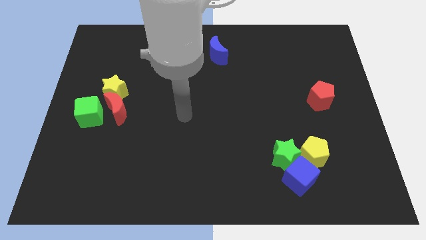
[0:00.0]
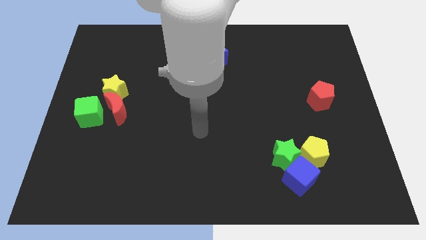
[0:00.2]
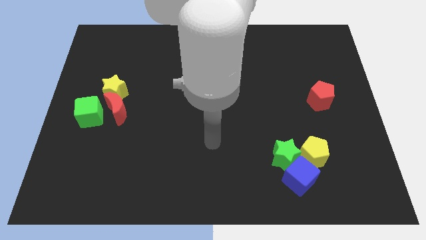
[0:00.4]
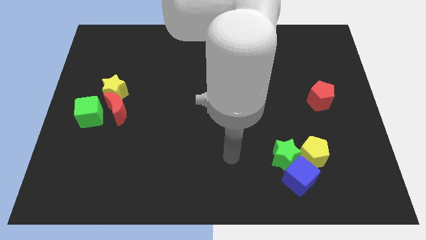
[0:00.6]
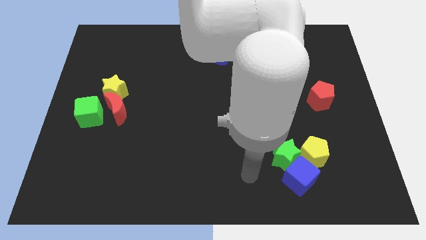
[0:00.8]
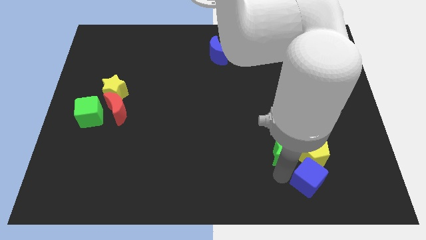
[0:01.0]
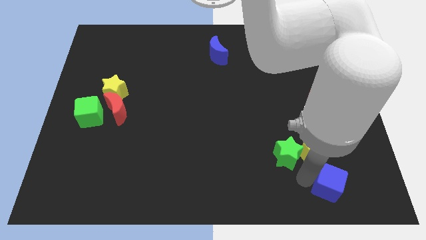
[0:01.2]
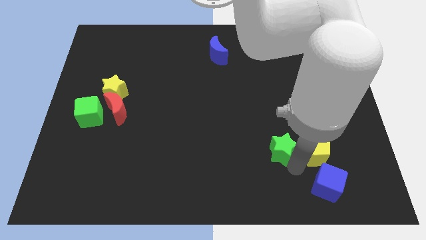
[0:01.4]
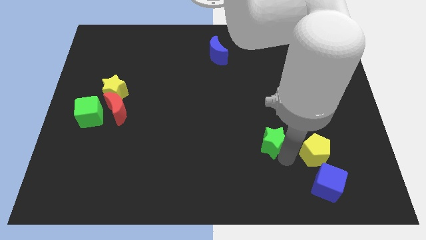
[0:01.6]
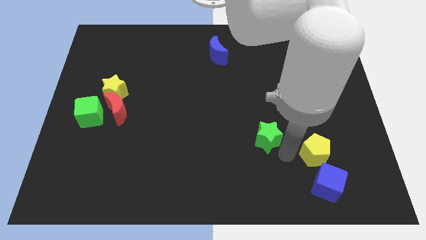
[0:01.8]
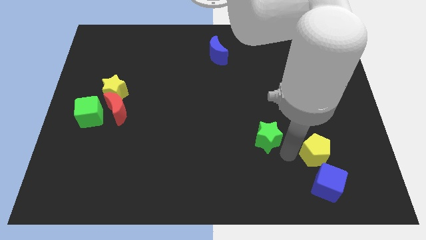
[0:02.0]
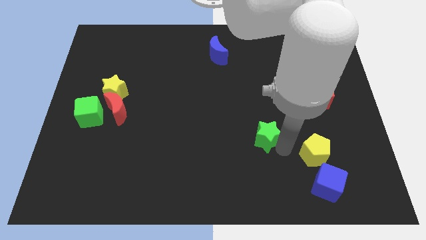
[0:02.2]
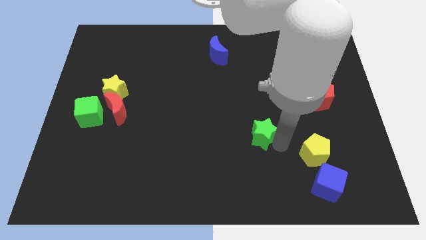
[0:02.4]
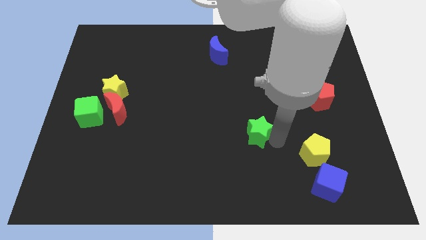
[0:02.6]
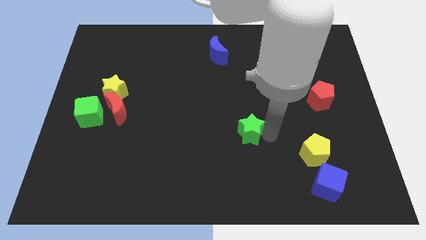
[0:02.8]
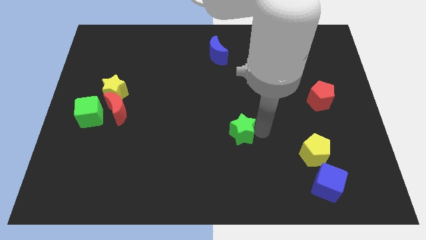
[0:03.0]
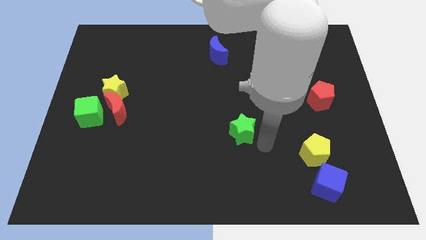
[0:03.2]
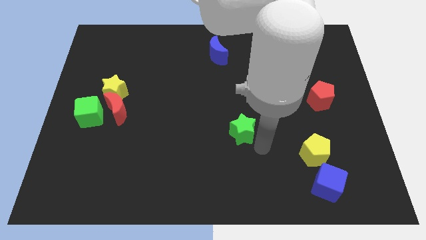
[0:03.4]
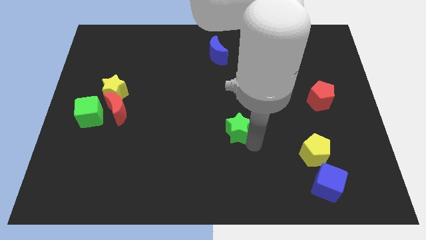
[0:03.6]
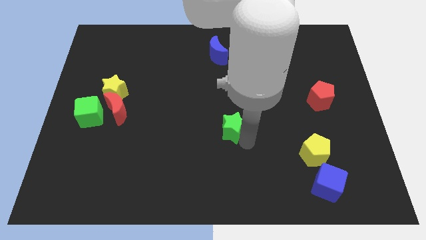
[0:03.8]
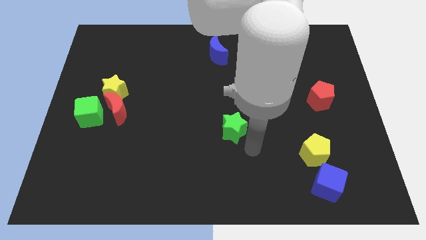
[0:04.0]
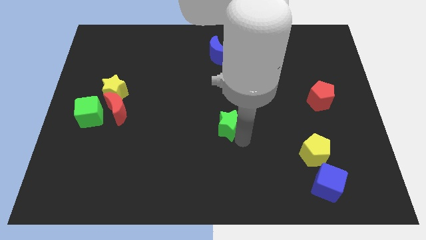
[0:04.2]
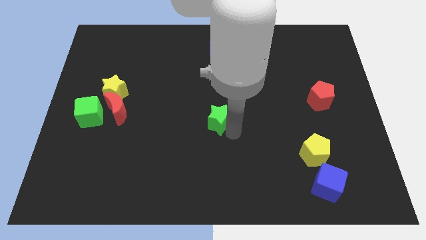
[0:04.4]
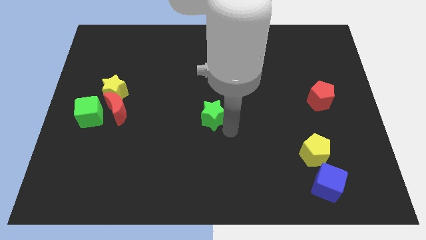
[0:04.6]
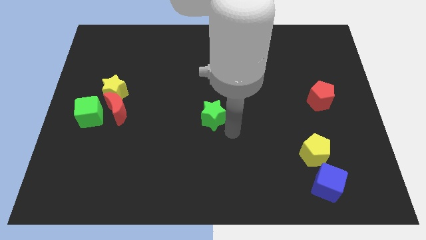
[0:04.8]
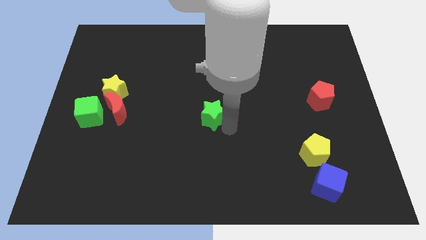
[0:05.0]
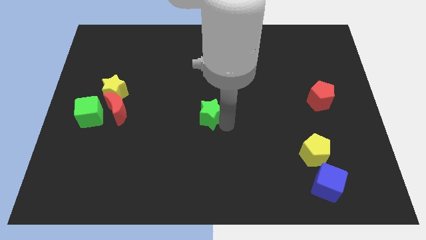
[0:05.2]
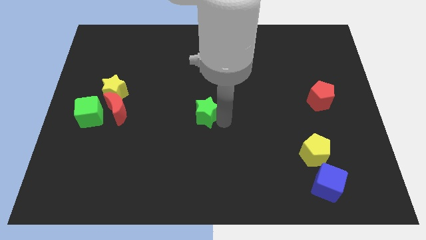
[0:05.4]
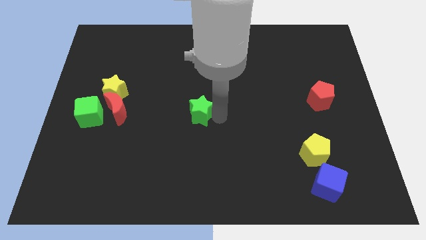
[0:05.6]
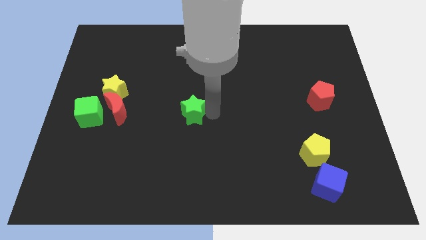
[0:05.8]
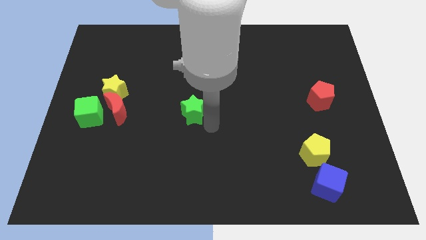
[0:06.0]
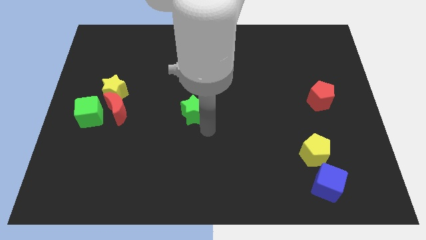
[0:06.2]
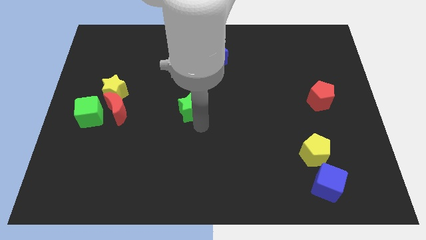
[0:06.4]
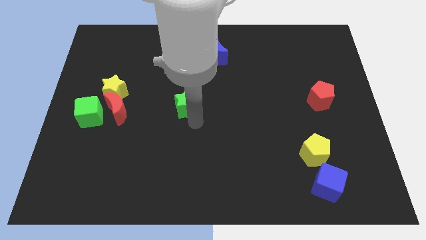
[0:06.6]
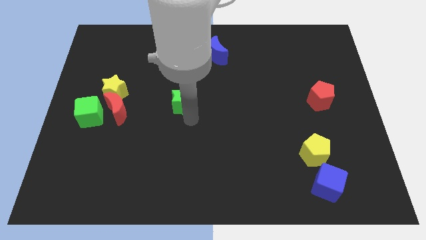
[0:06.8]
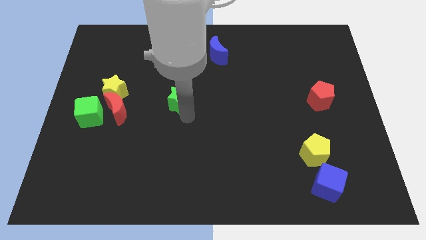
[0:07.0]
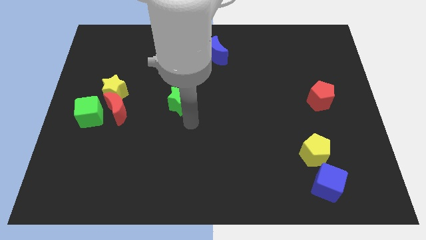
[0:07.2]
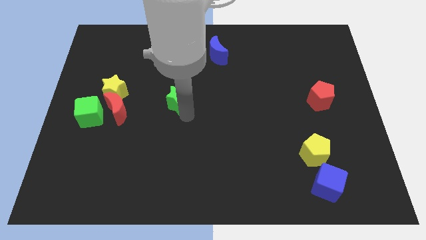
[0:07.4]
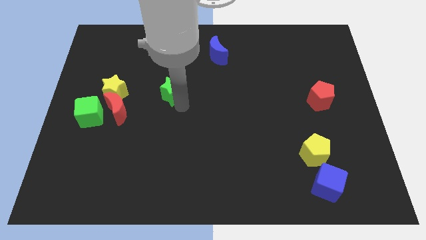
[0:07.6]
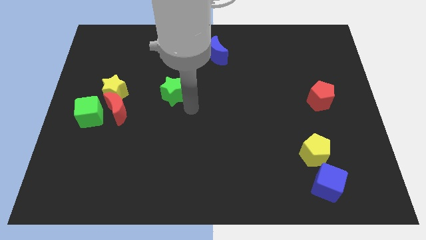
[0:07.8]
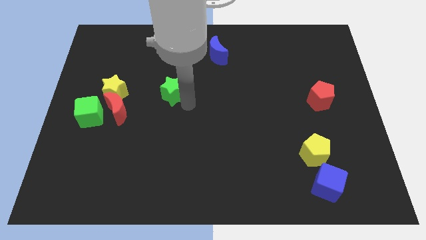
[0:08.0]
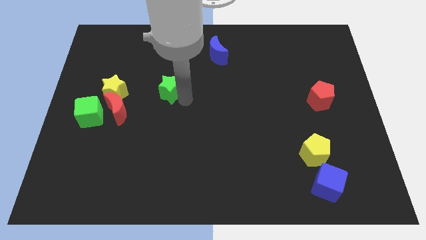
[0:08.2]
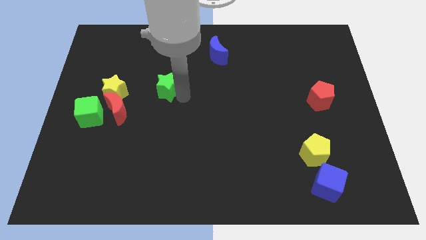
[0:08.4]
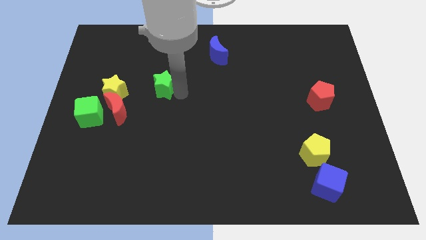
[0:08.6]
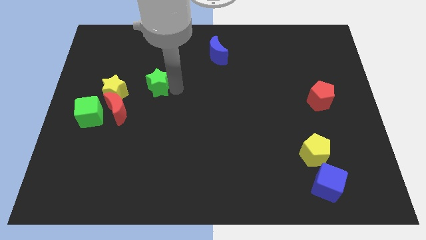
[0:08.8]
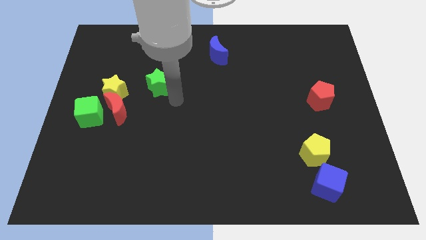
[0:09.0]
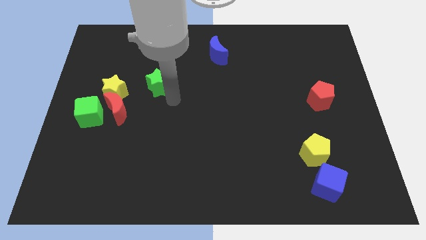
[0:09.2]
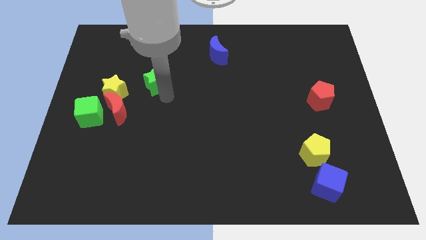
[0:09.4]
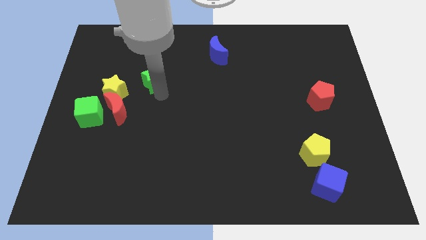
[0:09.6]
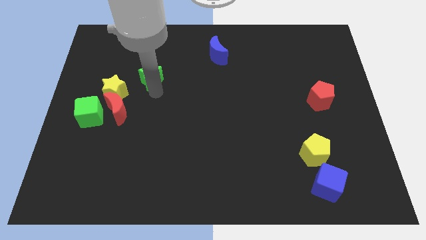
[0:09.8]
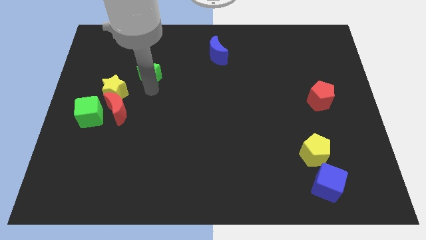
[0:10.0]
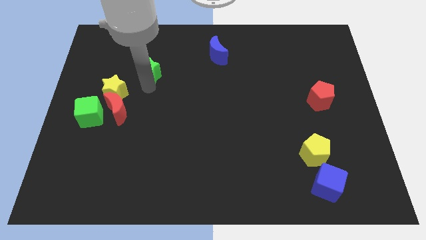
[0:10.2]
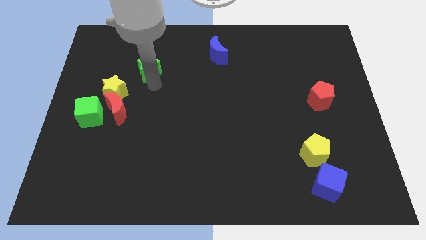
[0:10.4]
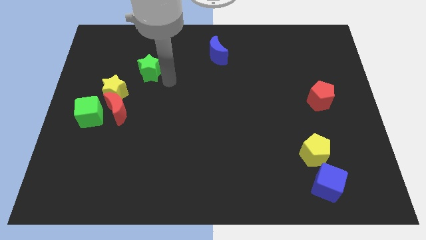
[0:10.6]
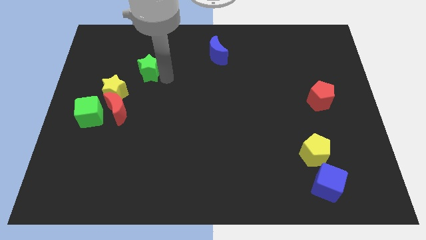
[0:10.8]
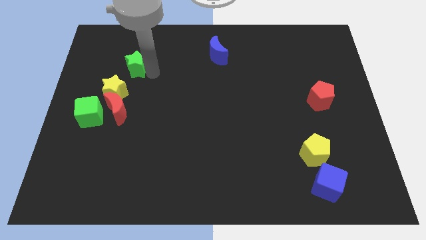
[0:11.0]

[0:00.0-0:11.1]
push the green star above the yellow star

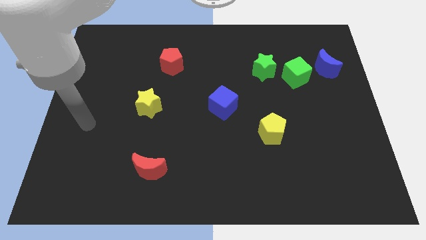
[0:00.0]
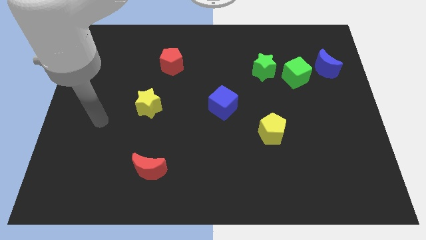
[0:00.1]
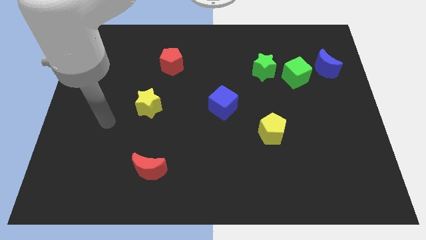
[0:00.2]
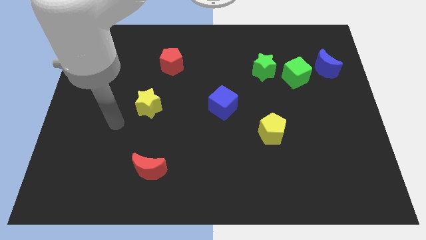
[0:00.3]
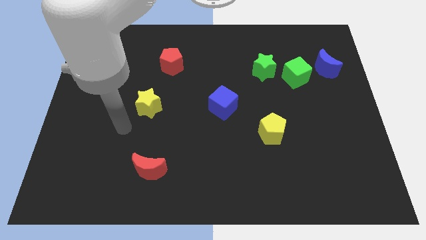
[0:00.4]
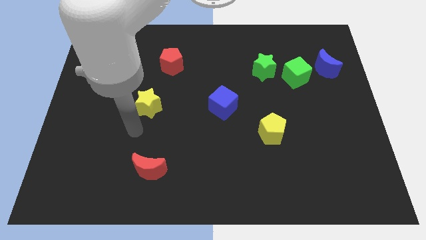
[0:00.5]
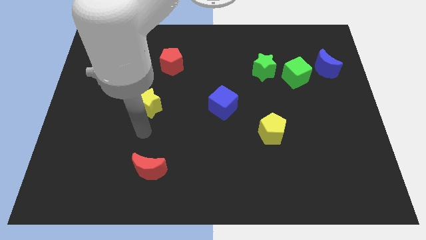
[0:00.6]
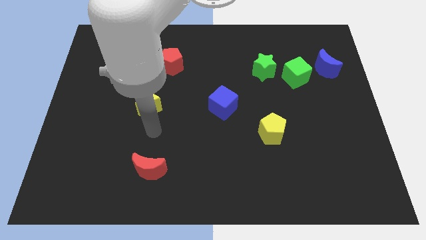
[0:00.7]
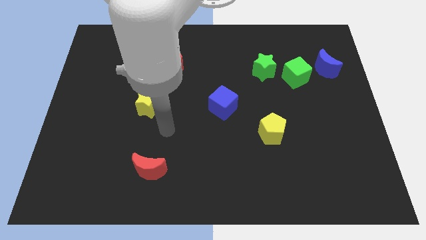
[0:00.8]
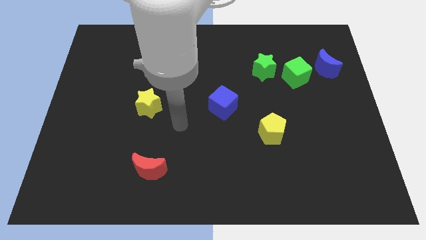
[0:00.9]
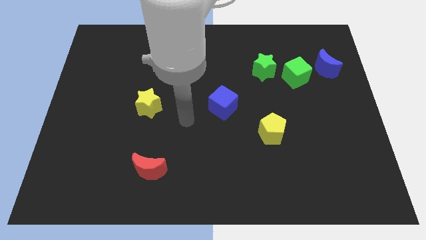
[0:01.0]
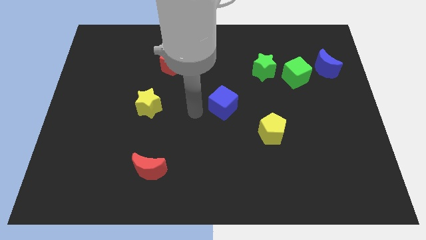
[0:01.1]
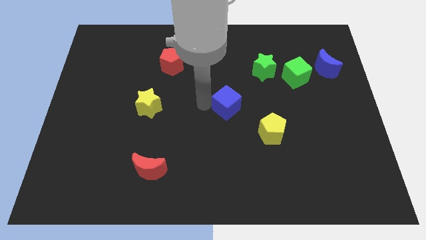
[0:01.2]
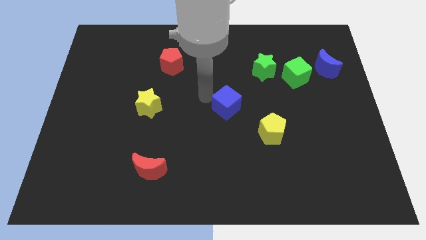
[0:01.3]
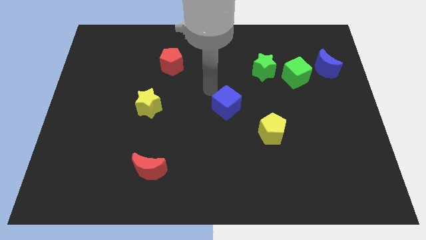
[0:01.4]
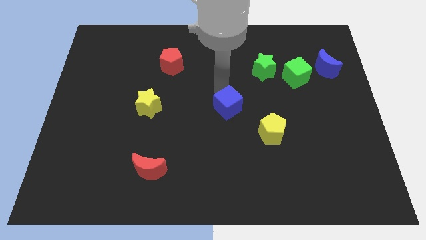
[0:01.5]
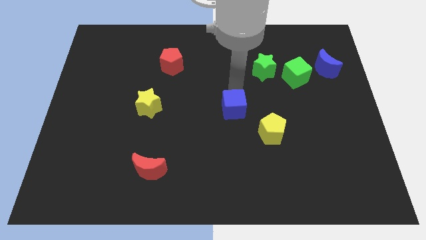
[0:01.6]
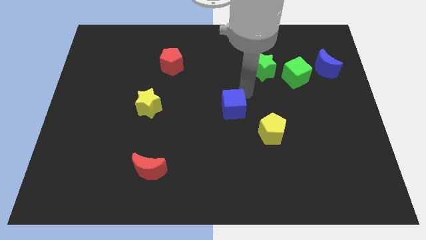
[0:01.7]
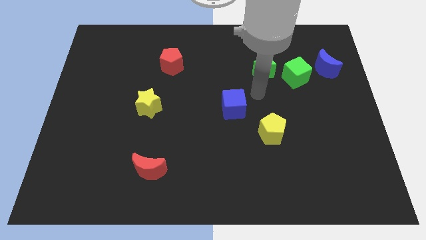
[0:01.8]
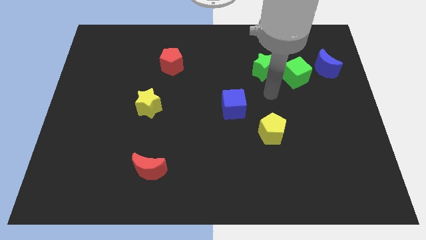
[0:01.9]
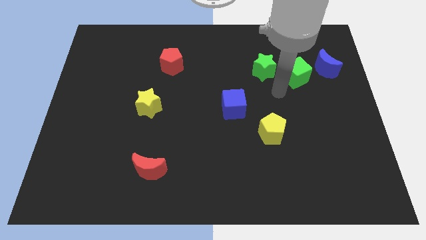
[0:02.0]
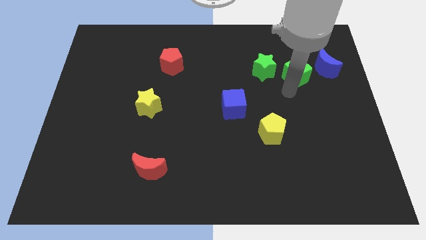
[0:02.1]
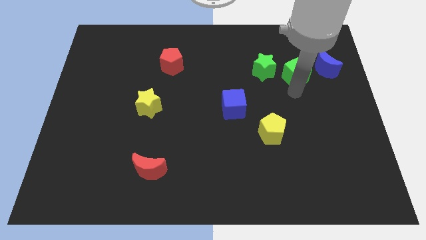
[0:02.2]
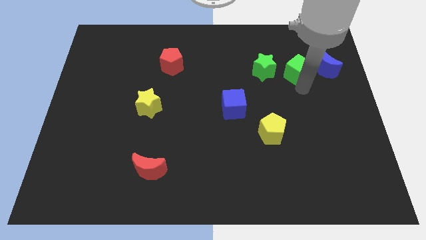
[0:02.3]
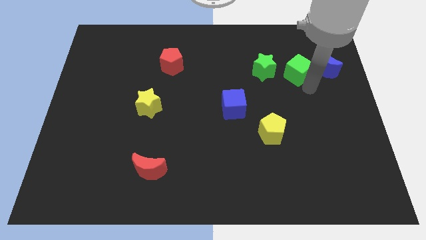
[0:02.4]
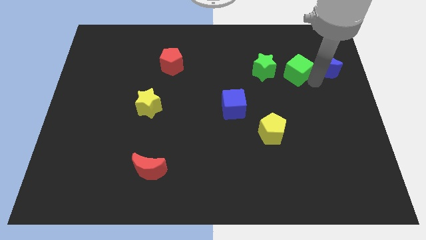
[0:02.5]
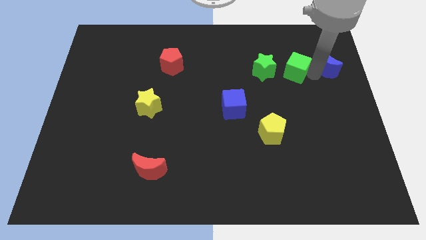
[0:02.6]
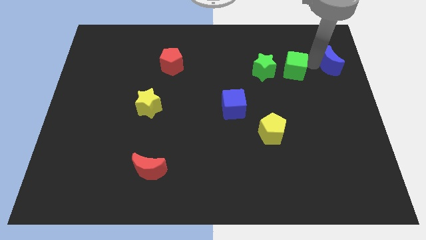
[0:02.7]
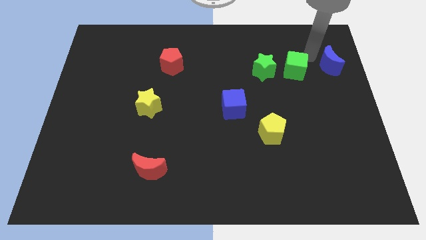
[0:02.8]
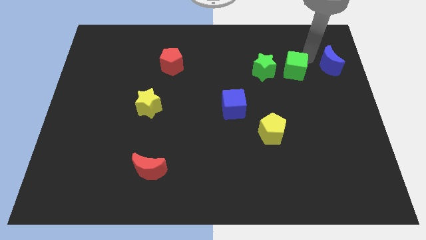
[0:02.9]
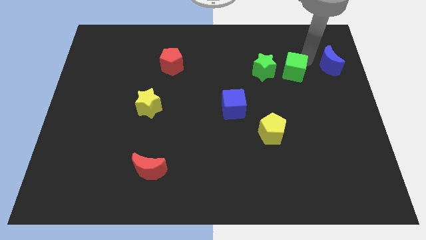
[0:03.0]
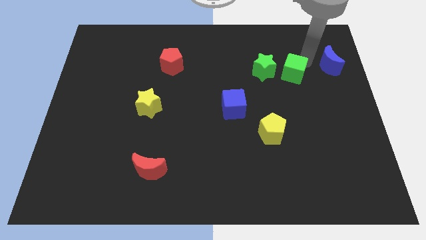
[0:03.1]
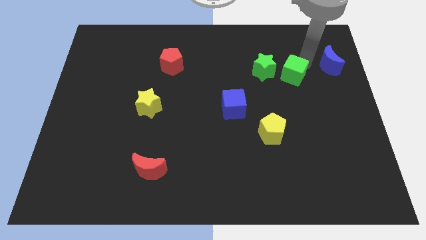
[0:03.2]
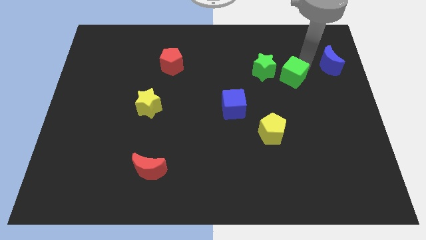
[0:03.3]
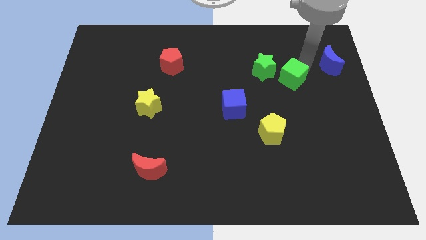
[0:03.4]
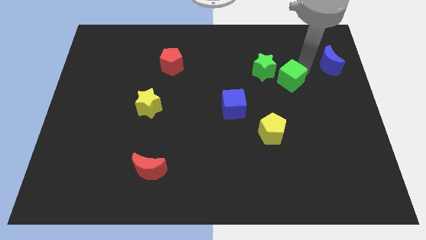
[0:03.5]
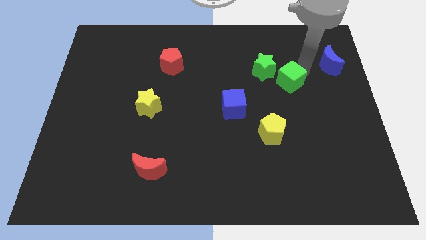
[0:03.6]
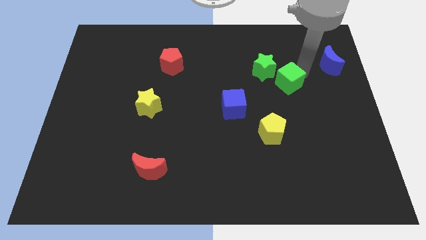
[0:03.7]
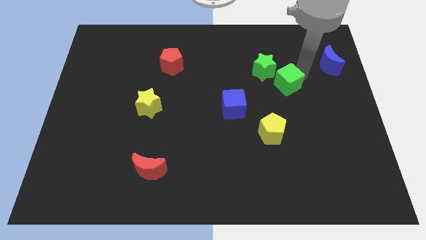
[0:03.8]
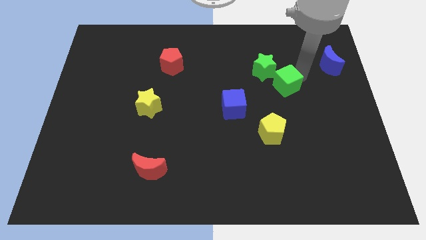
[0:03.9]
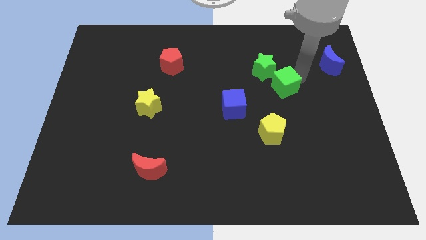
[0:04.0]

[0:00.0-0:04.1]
put the green cube to the bottom side of the green star
